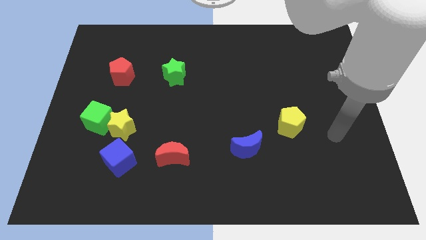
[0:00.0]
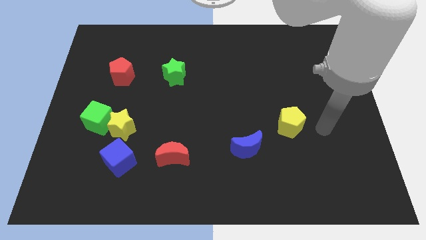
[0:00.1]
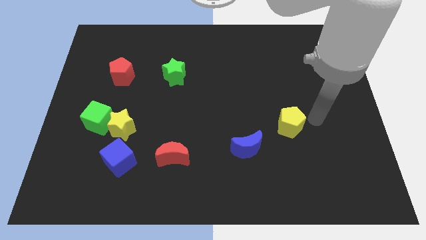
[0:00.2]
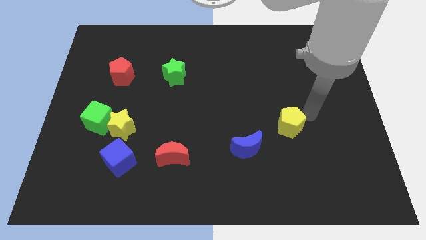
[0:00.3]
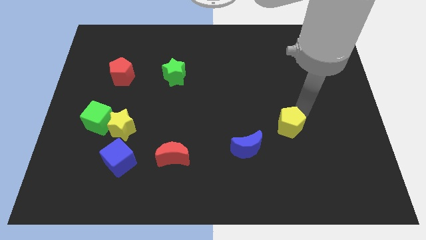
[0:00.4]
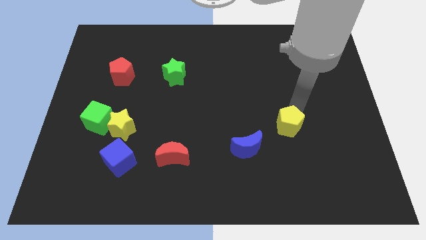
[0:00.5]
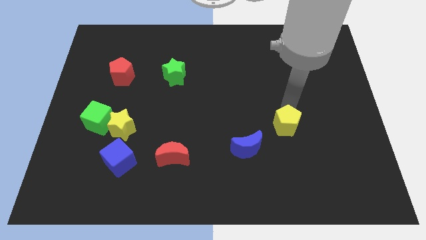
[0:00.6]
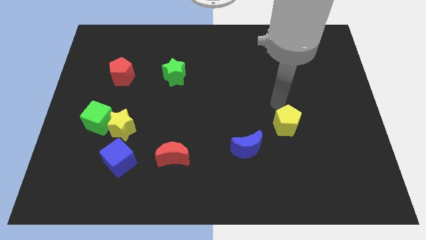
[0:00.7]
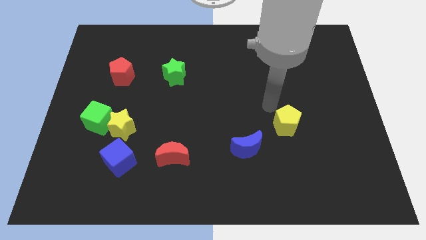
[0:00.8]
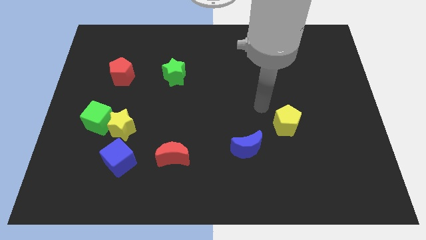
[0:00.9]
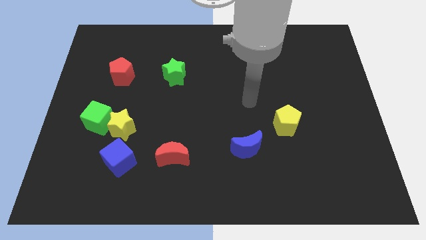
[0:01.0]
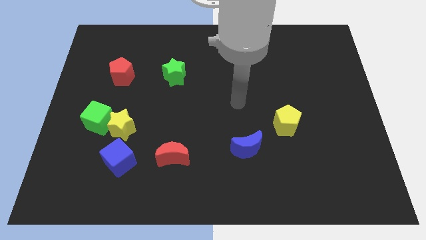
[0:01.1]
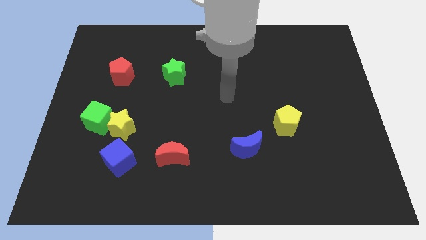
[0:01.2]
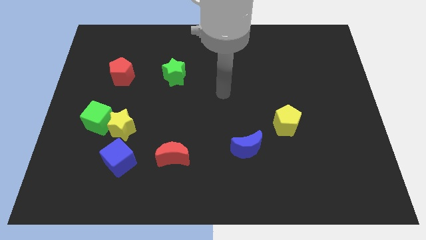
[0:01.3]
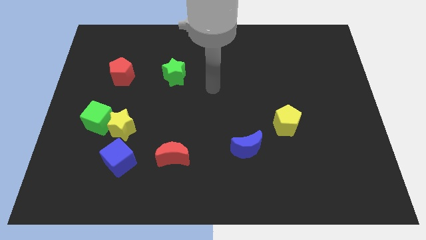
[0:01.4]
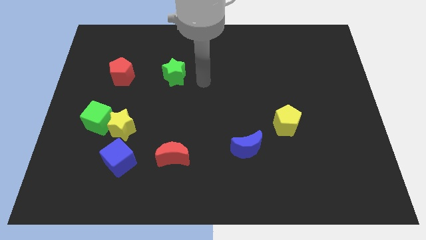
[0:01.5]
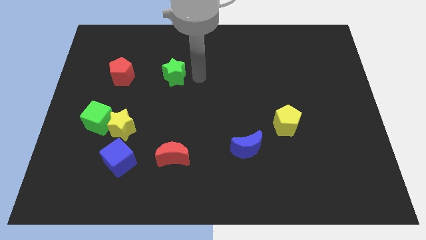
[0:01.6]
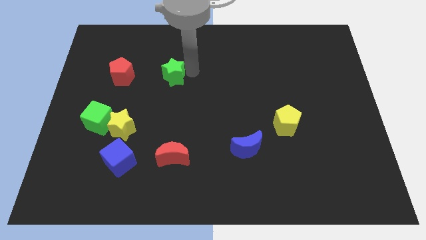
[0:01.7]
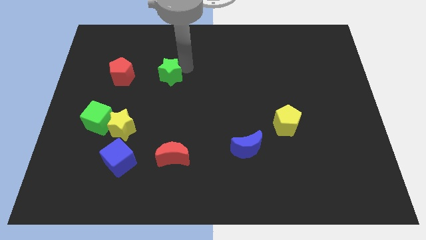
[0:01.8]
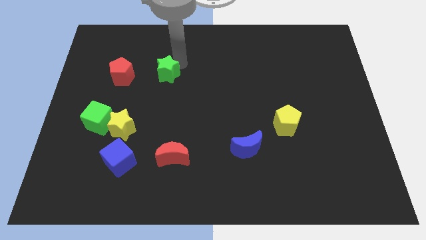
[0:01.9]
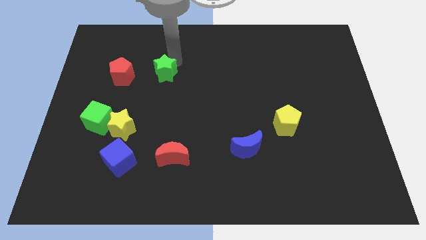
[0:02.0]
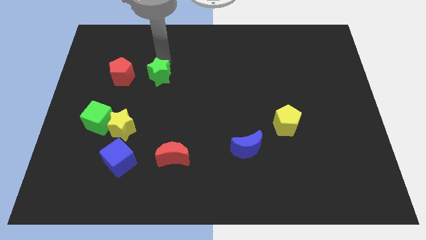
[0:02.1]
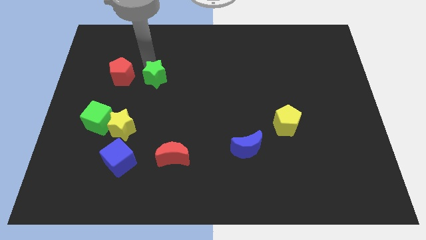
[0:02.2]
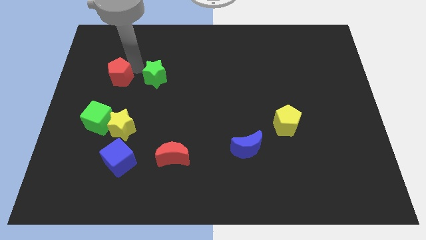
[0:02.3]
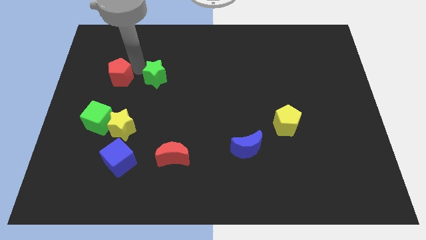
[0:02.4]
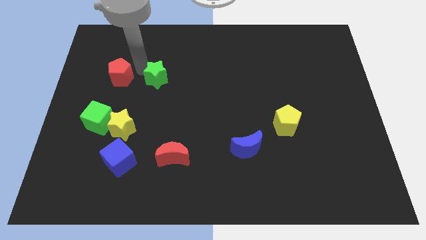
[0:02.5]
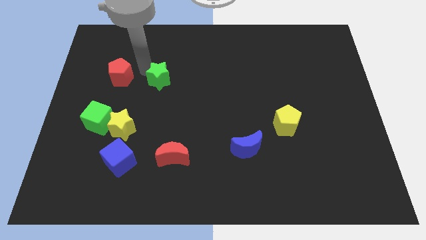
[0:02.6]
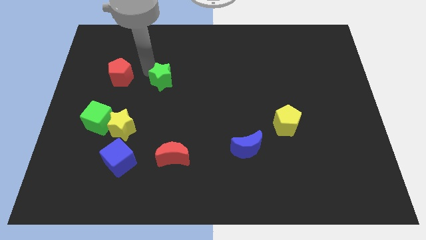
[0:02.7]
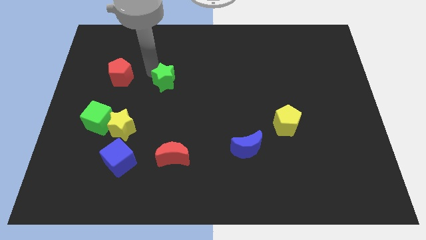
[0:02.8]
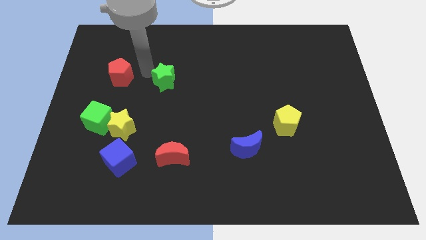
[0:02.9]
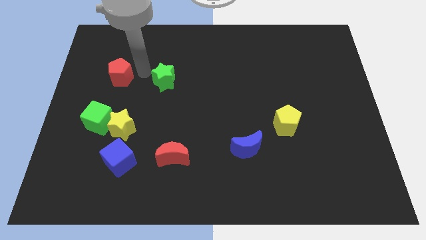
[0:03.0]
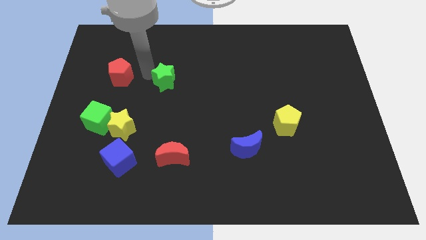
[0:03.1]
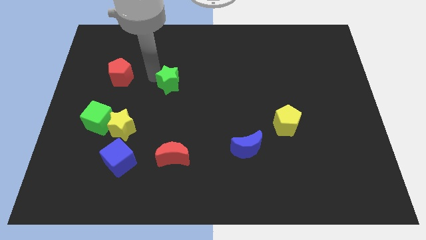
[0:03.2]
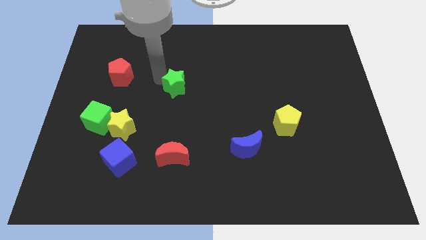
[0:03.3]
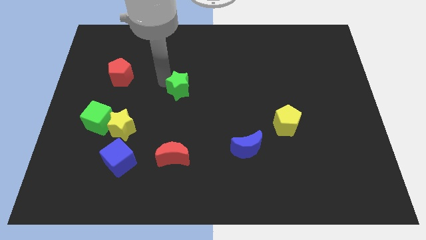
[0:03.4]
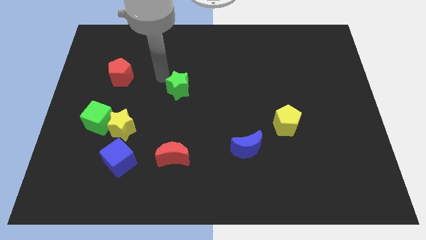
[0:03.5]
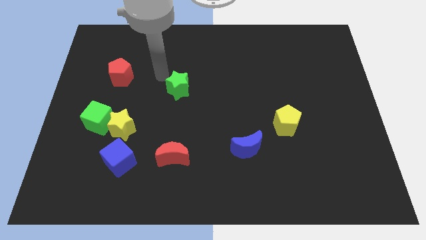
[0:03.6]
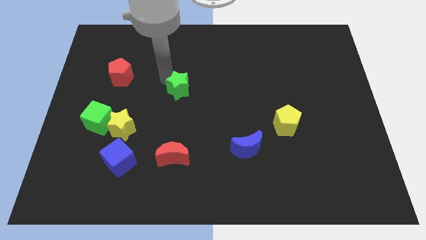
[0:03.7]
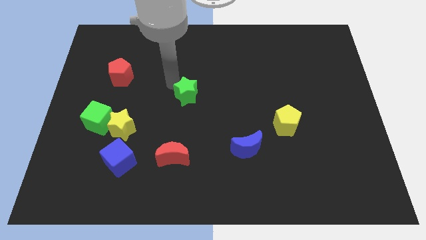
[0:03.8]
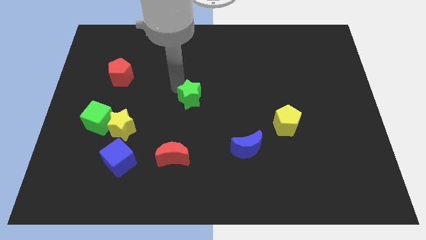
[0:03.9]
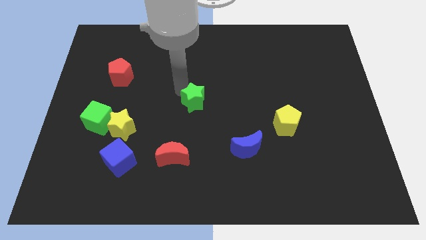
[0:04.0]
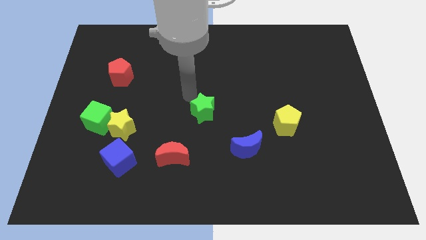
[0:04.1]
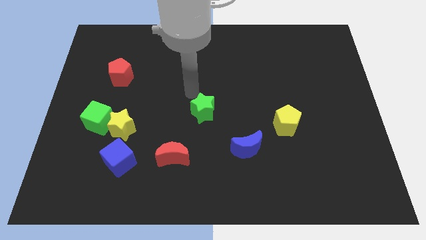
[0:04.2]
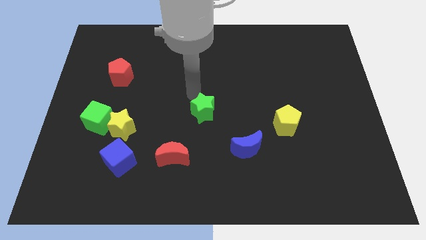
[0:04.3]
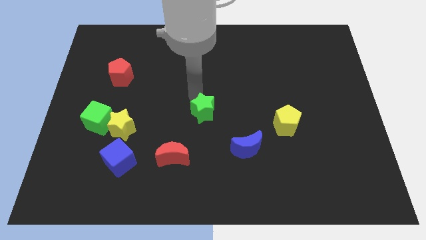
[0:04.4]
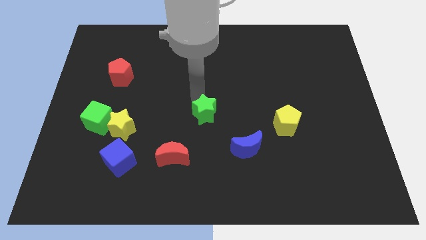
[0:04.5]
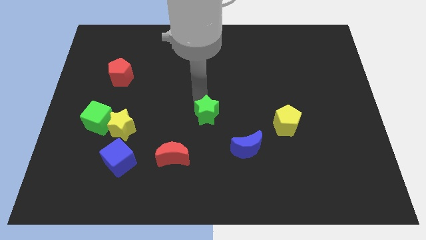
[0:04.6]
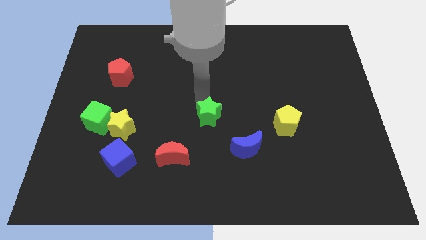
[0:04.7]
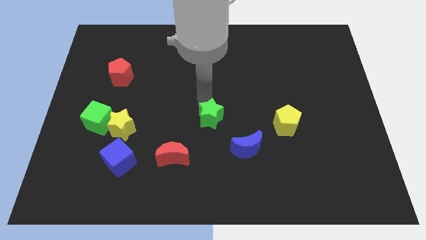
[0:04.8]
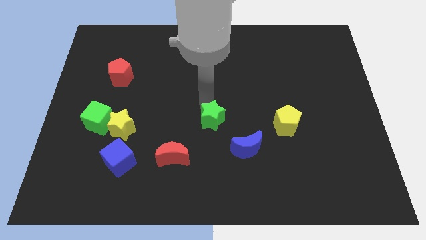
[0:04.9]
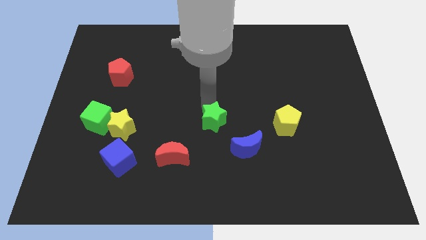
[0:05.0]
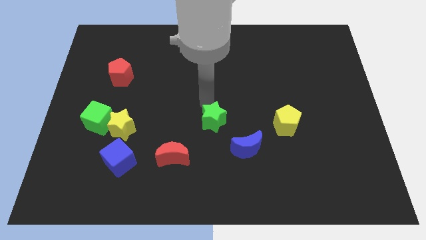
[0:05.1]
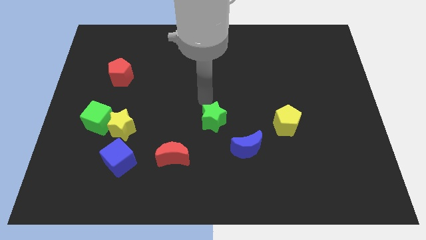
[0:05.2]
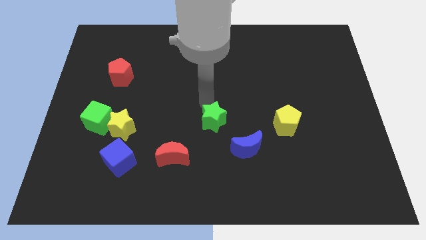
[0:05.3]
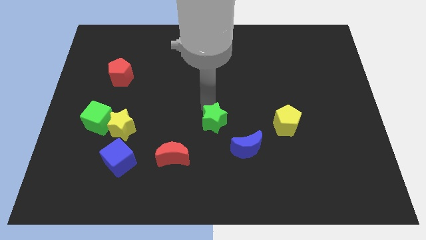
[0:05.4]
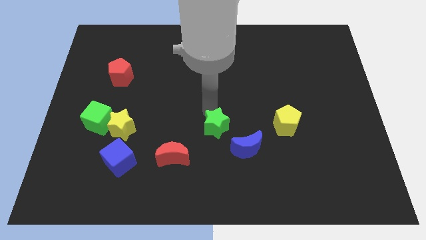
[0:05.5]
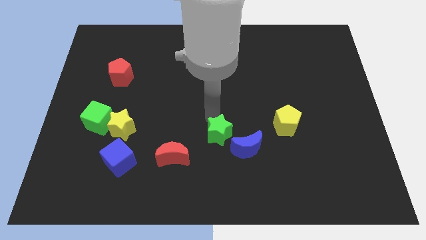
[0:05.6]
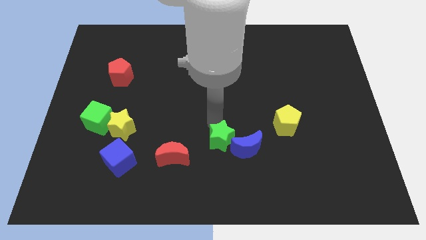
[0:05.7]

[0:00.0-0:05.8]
push the green star diagonally downwards and right

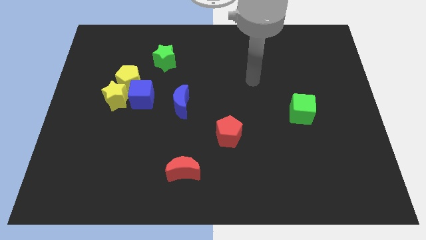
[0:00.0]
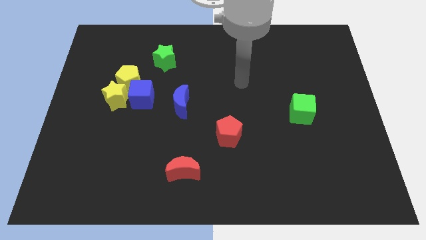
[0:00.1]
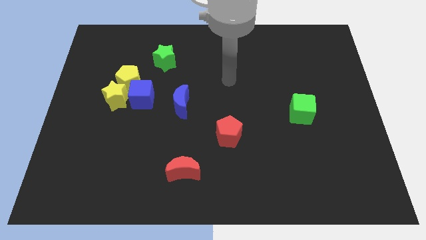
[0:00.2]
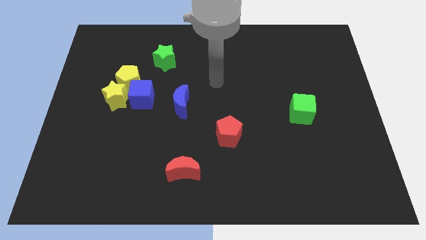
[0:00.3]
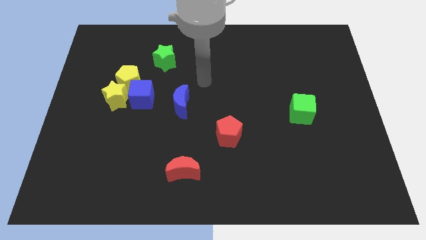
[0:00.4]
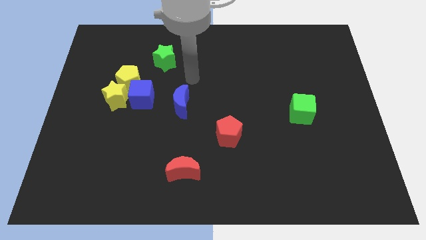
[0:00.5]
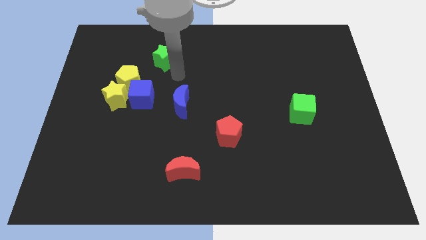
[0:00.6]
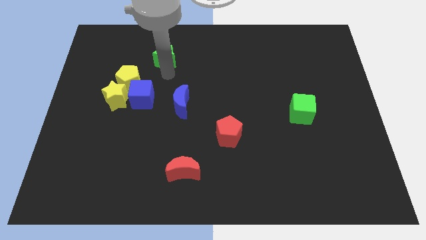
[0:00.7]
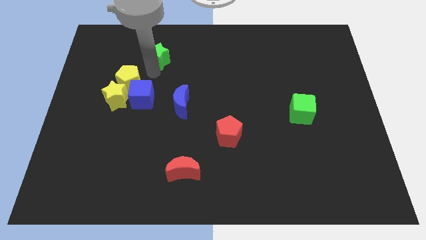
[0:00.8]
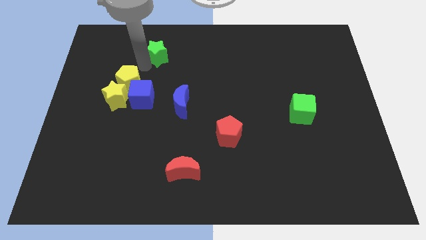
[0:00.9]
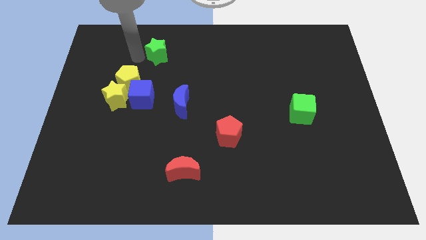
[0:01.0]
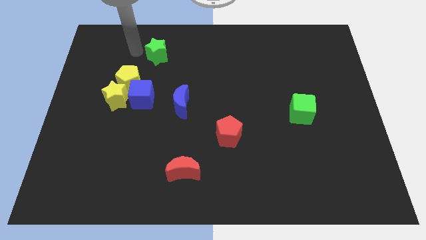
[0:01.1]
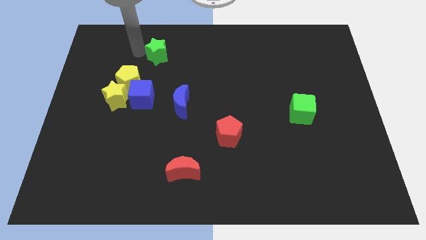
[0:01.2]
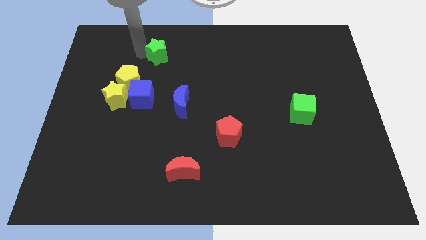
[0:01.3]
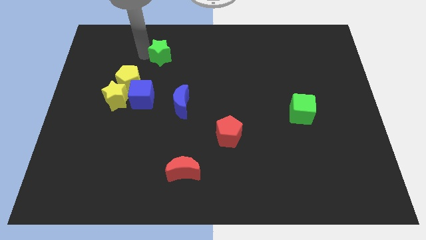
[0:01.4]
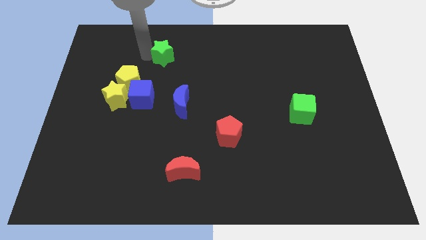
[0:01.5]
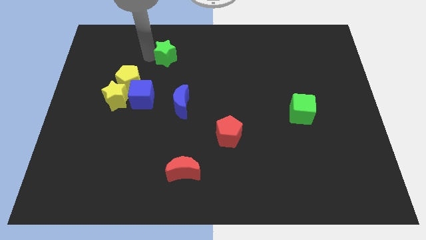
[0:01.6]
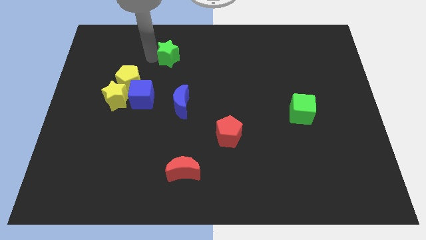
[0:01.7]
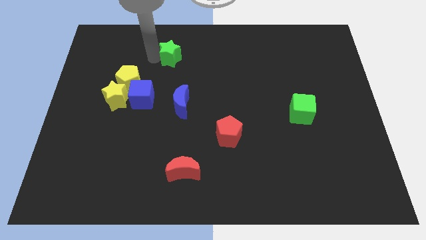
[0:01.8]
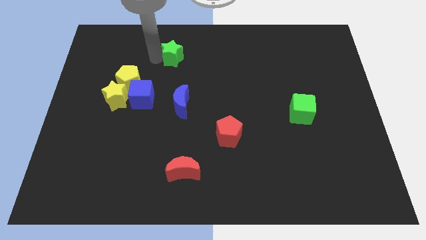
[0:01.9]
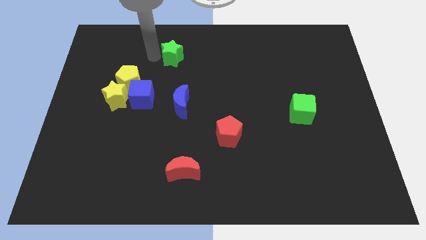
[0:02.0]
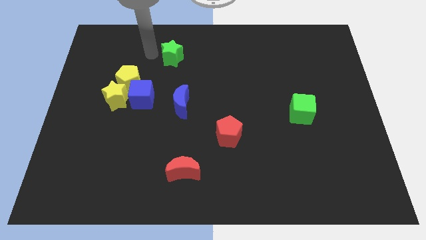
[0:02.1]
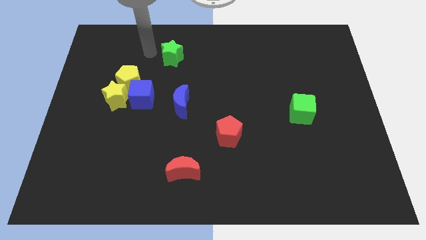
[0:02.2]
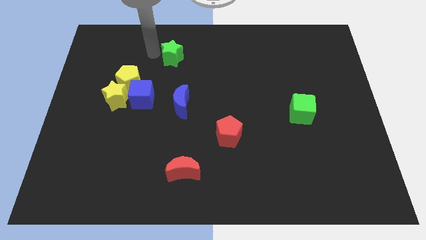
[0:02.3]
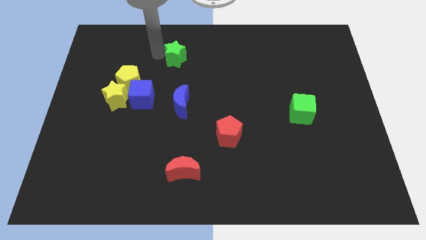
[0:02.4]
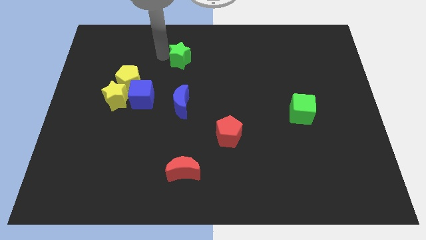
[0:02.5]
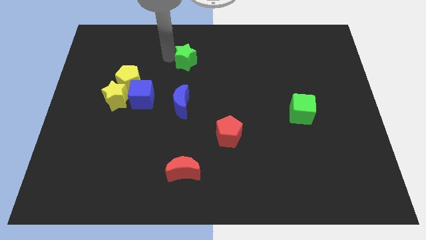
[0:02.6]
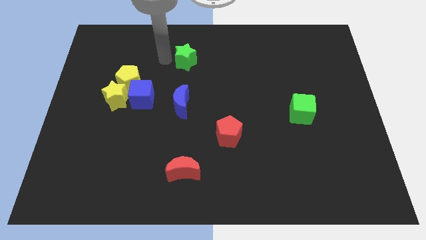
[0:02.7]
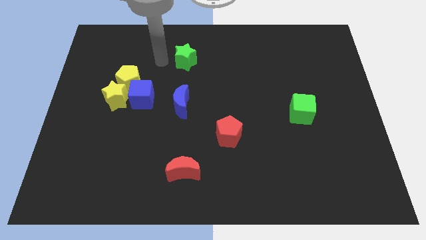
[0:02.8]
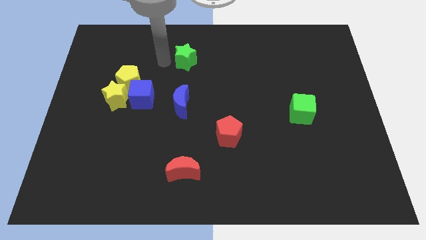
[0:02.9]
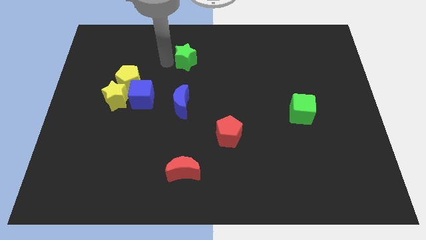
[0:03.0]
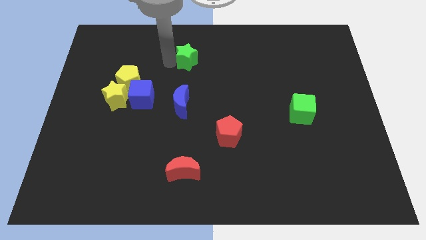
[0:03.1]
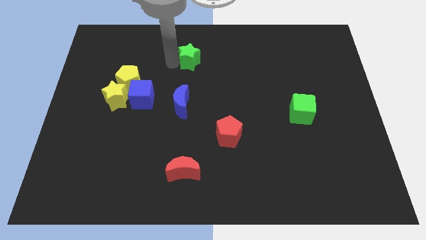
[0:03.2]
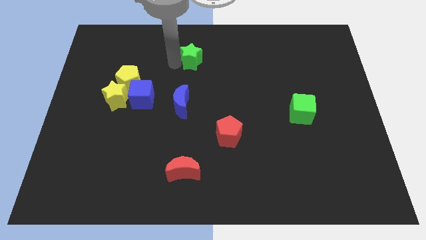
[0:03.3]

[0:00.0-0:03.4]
move the green star a little bit right
